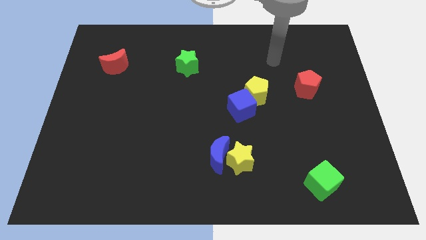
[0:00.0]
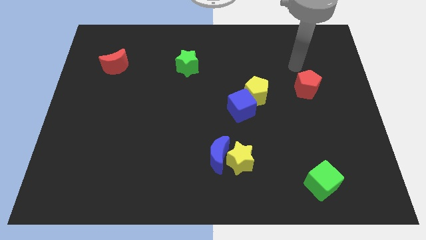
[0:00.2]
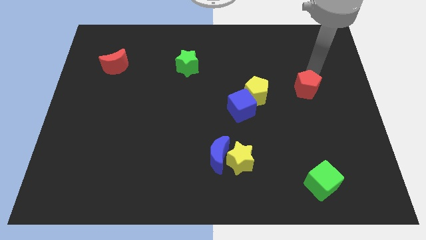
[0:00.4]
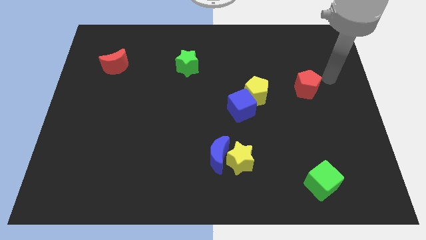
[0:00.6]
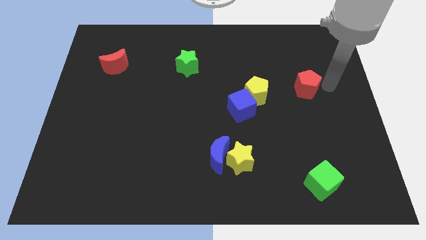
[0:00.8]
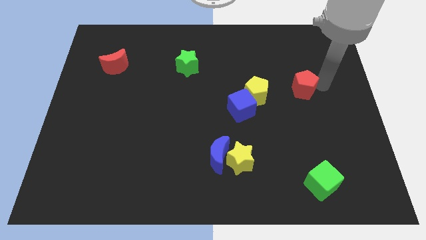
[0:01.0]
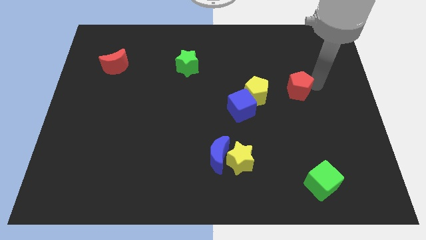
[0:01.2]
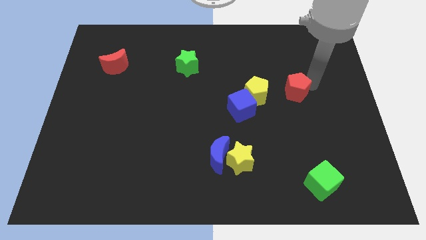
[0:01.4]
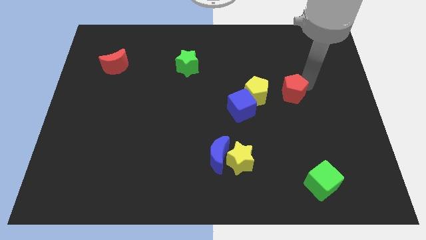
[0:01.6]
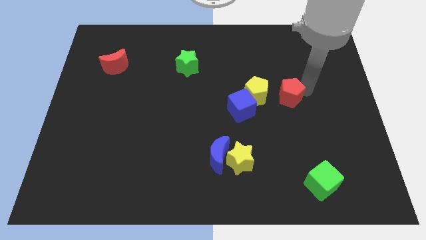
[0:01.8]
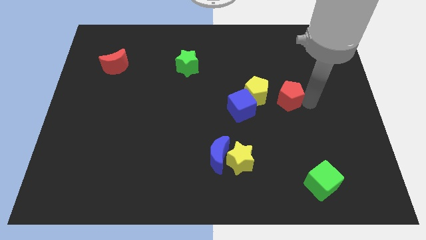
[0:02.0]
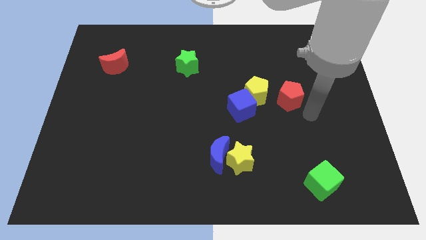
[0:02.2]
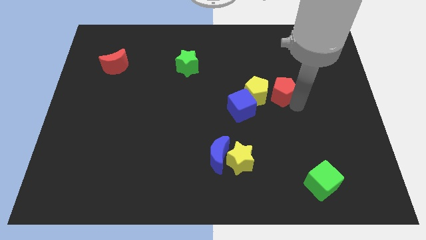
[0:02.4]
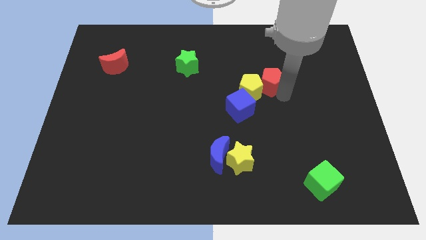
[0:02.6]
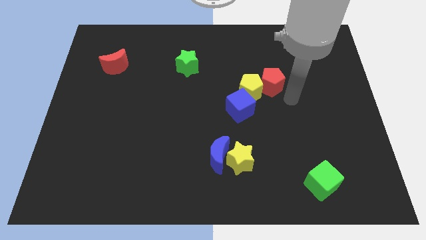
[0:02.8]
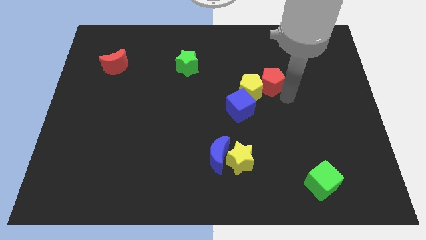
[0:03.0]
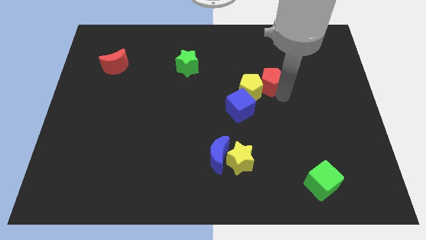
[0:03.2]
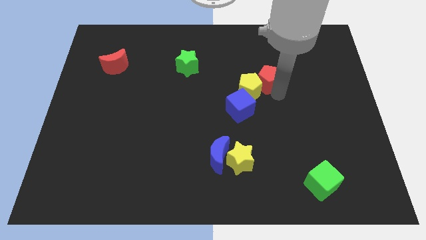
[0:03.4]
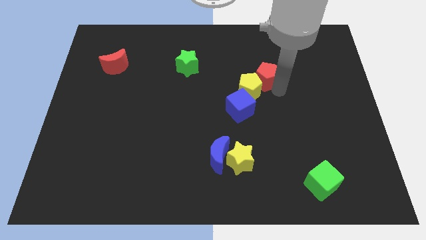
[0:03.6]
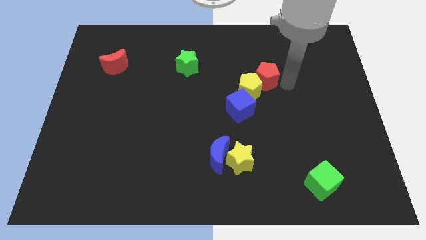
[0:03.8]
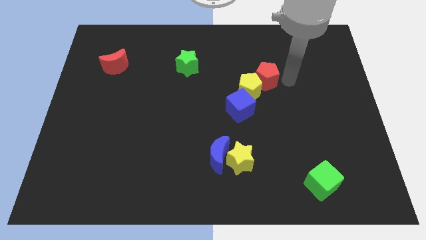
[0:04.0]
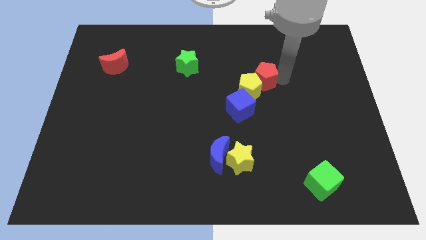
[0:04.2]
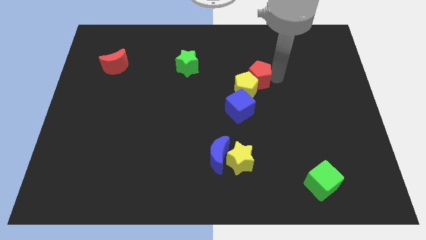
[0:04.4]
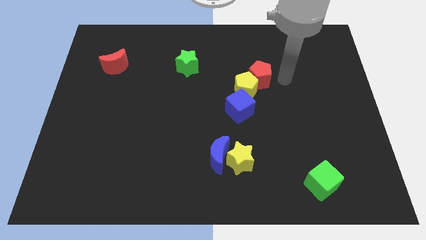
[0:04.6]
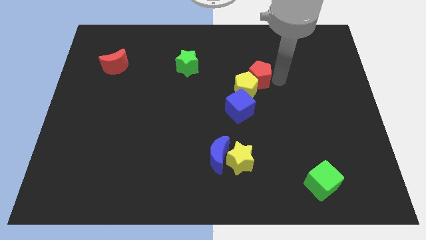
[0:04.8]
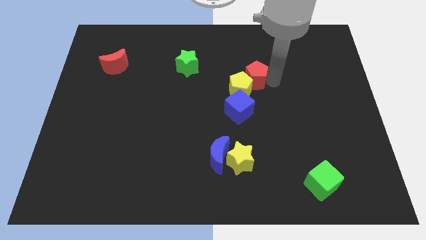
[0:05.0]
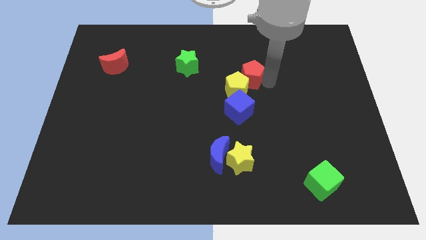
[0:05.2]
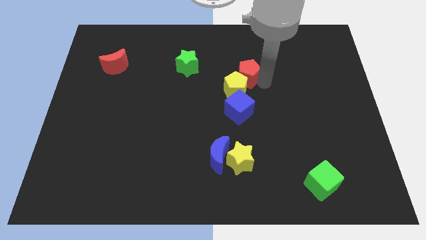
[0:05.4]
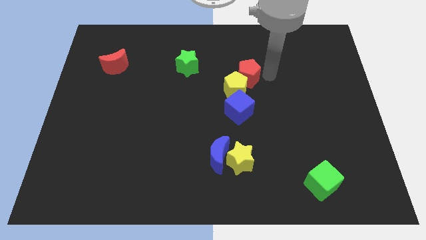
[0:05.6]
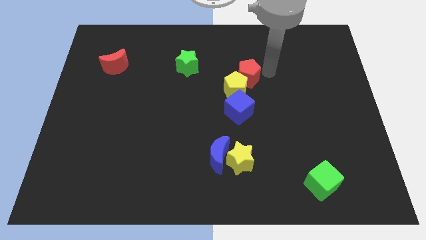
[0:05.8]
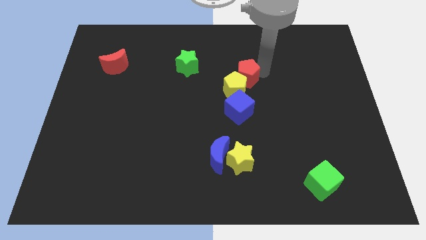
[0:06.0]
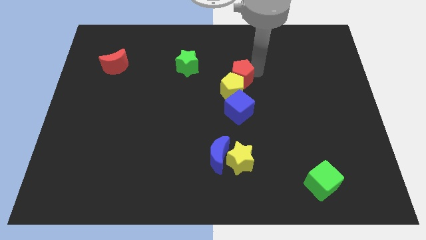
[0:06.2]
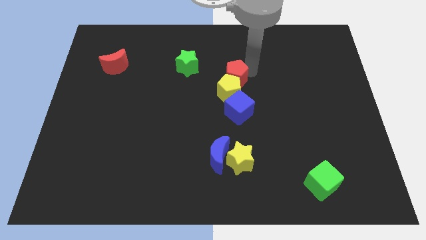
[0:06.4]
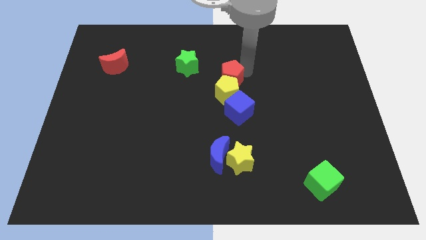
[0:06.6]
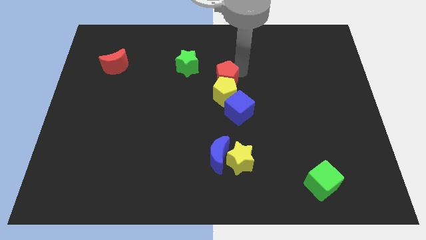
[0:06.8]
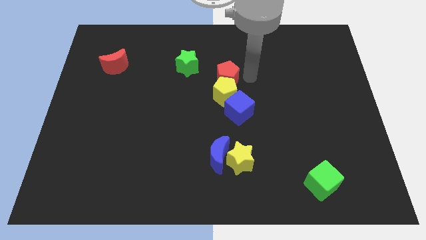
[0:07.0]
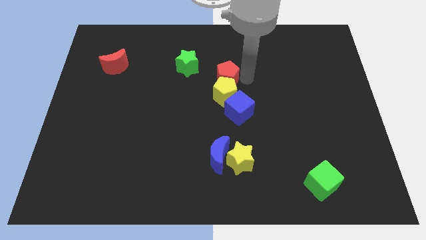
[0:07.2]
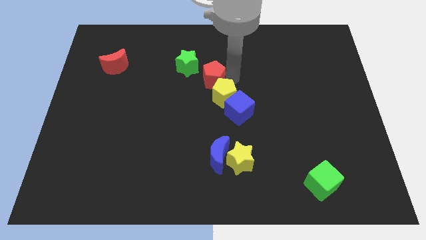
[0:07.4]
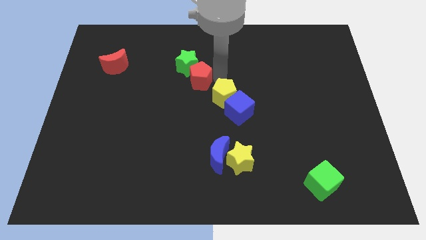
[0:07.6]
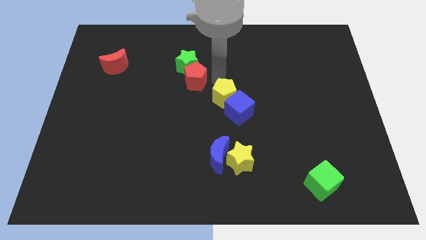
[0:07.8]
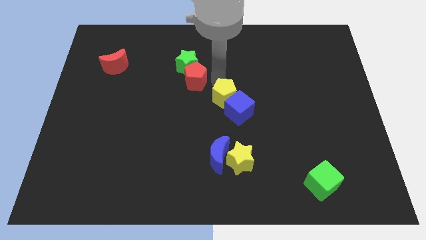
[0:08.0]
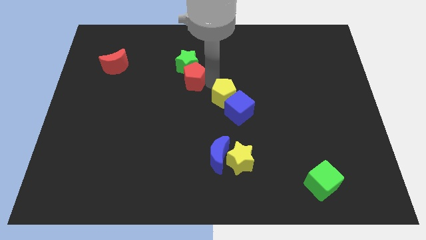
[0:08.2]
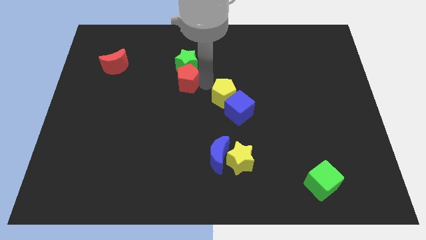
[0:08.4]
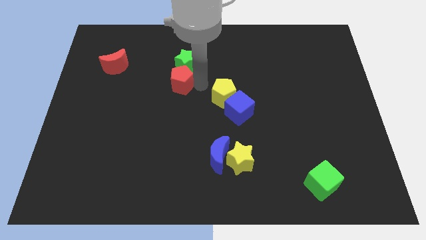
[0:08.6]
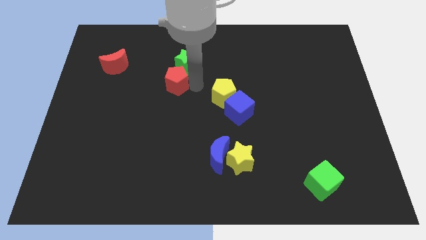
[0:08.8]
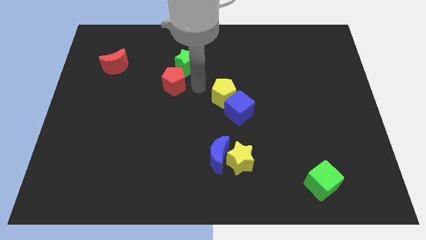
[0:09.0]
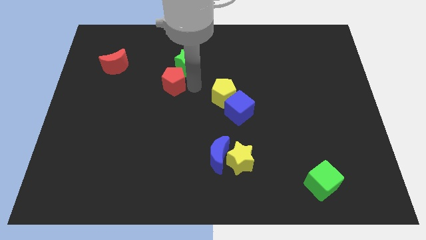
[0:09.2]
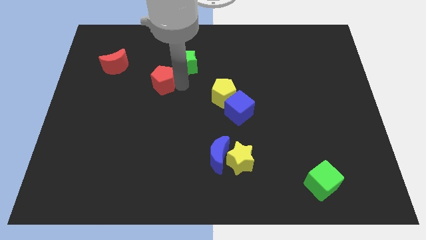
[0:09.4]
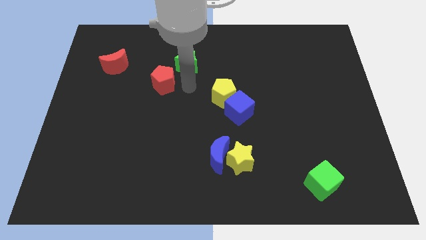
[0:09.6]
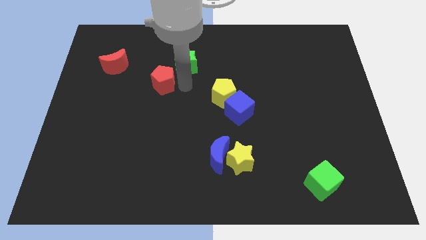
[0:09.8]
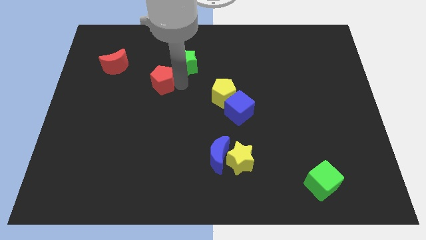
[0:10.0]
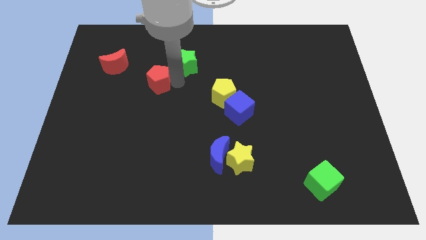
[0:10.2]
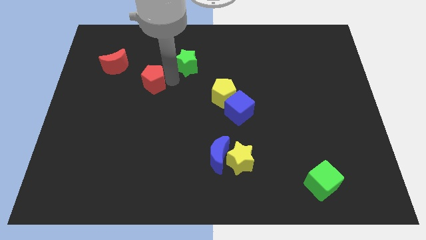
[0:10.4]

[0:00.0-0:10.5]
put the red pentagon to the bottom right of the red moon

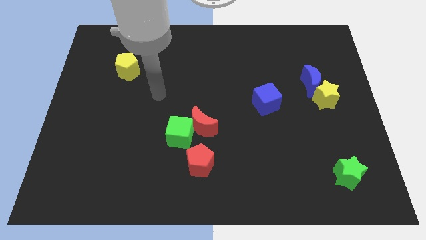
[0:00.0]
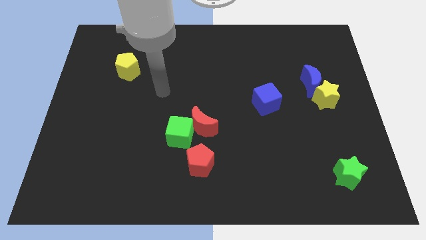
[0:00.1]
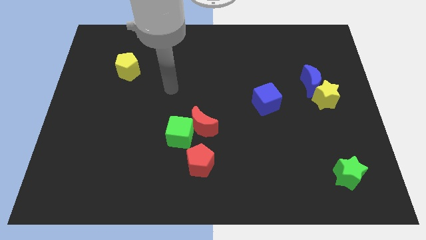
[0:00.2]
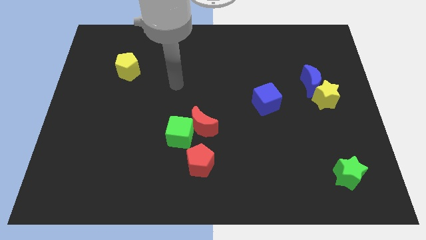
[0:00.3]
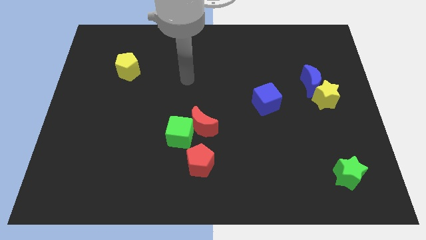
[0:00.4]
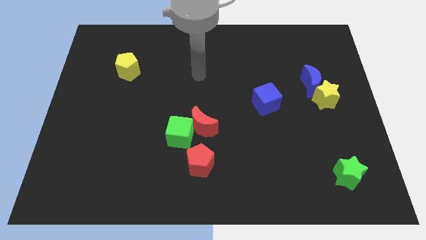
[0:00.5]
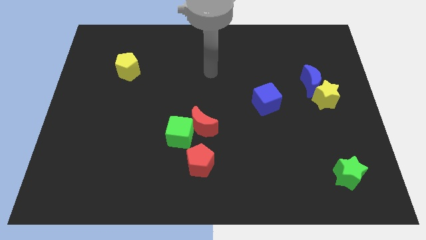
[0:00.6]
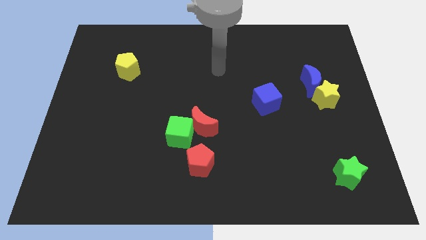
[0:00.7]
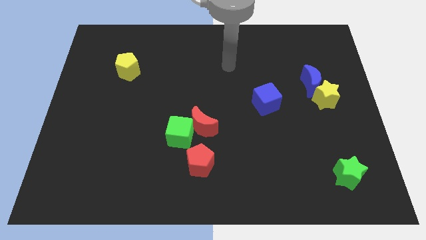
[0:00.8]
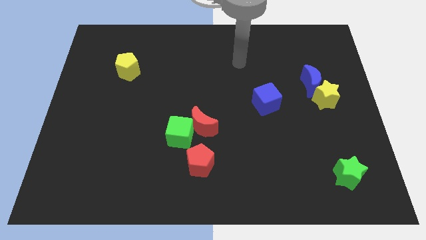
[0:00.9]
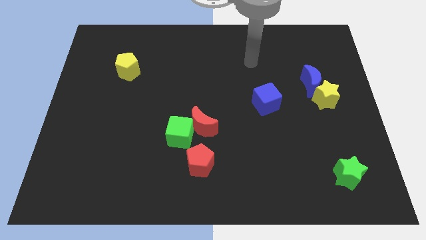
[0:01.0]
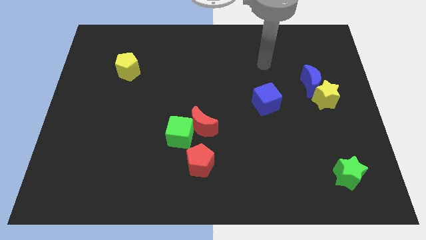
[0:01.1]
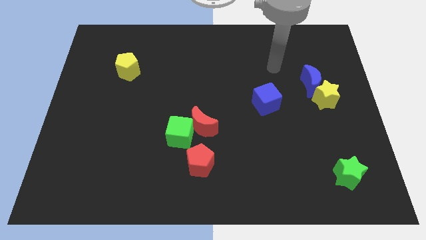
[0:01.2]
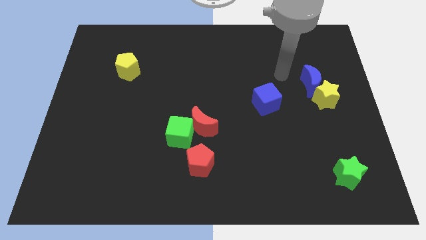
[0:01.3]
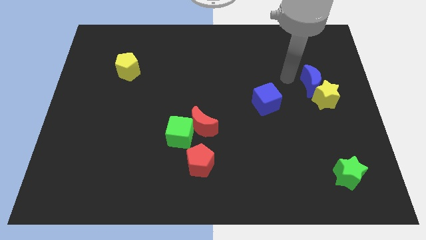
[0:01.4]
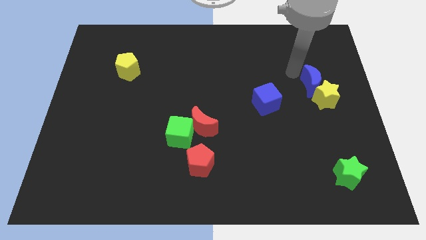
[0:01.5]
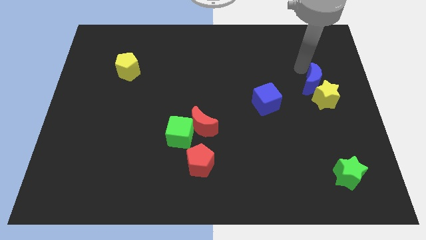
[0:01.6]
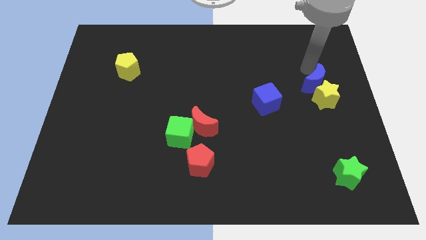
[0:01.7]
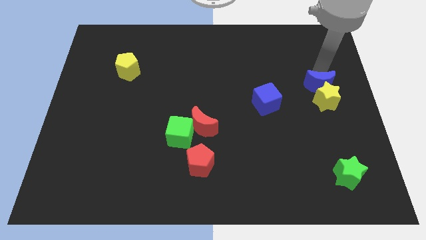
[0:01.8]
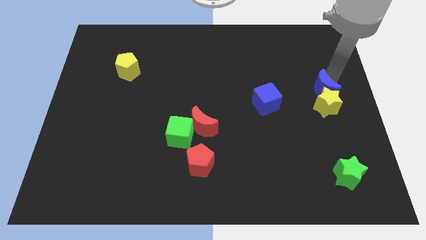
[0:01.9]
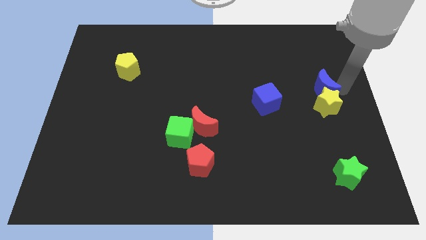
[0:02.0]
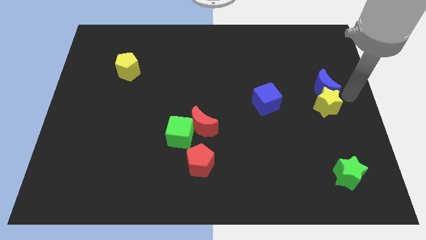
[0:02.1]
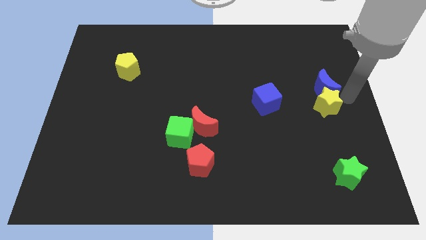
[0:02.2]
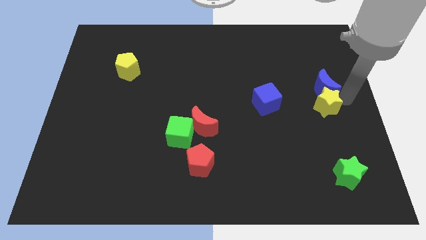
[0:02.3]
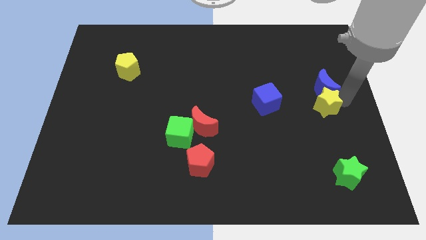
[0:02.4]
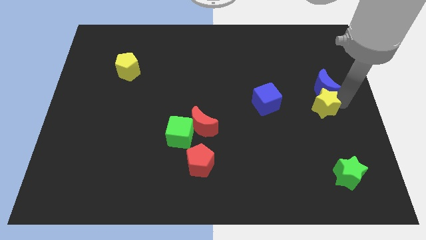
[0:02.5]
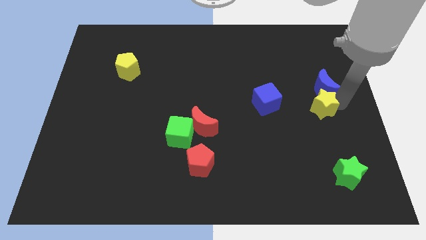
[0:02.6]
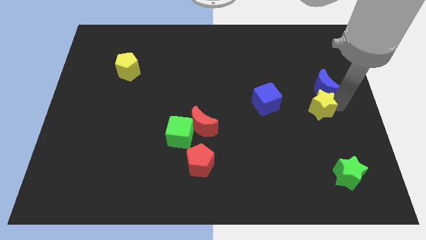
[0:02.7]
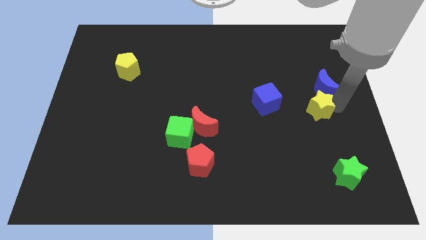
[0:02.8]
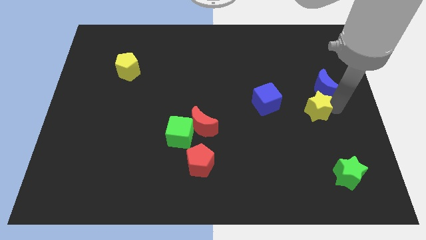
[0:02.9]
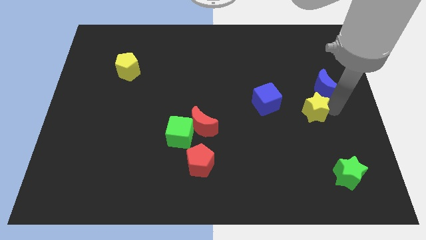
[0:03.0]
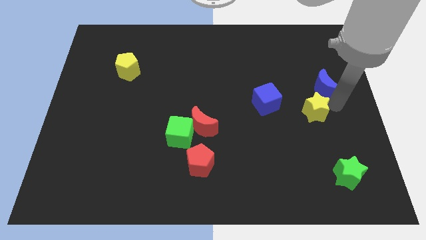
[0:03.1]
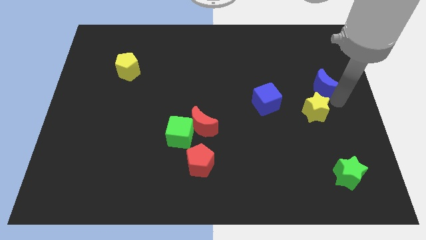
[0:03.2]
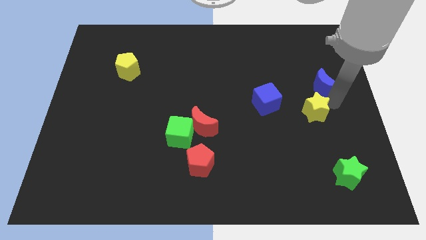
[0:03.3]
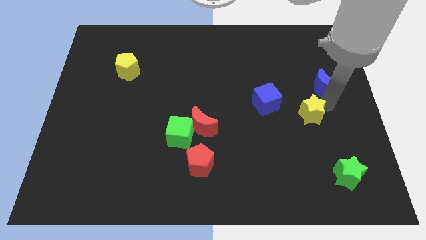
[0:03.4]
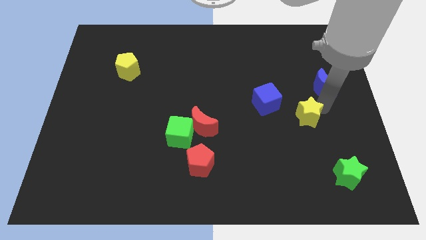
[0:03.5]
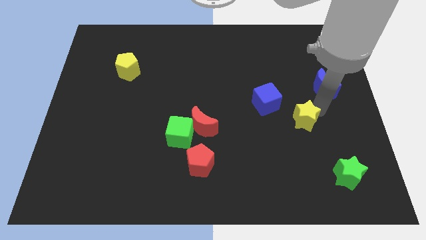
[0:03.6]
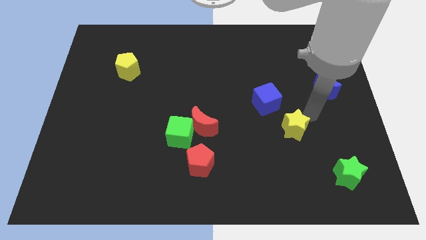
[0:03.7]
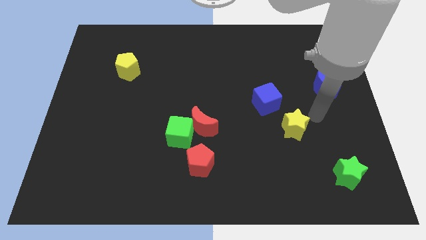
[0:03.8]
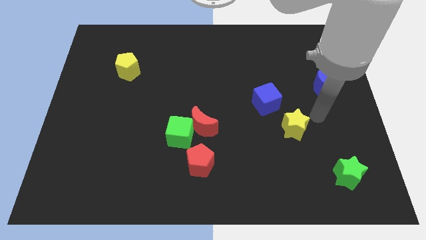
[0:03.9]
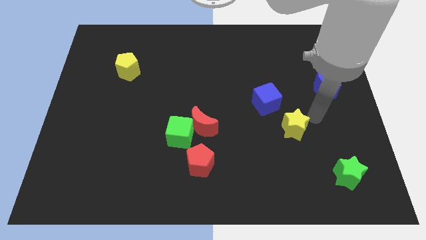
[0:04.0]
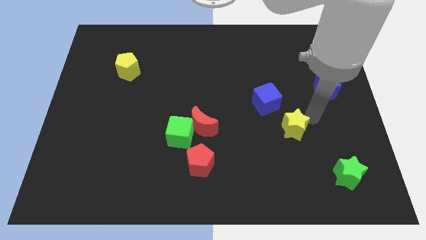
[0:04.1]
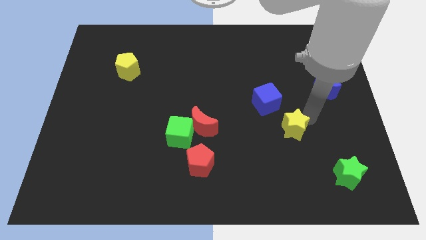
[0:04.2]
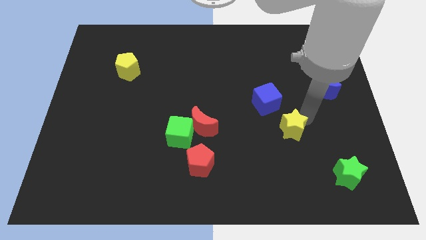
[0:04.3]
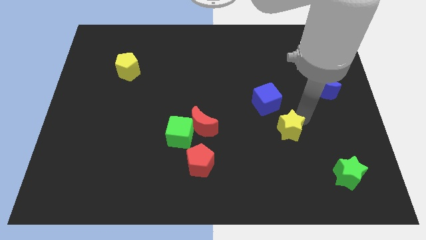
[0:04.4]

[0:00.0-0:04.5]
put the yellow star below the blue cube
